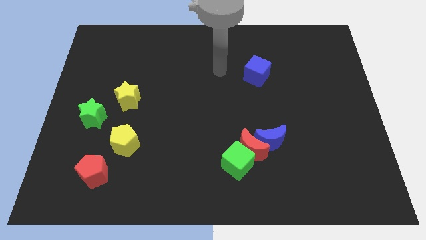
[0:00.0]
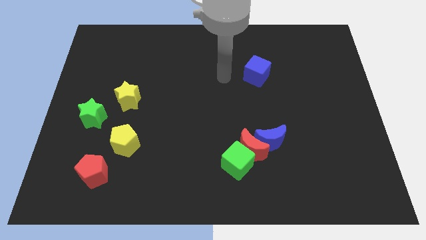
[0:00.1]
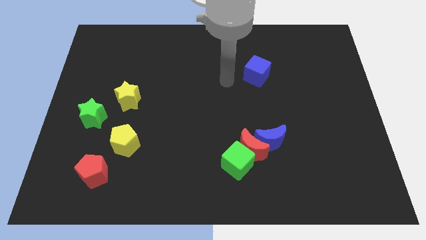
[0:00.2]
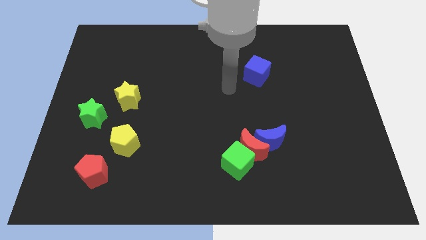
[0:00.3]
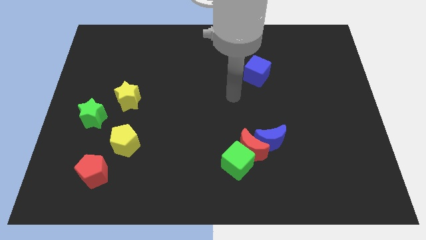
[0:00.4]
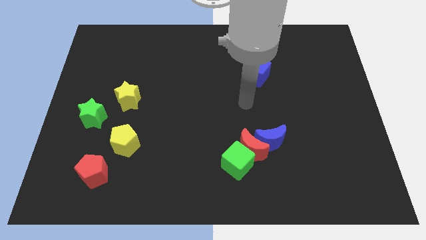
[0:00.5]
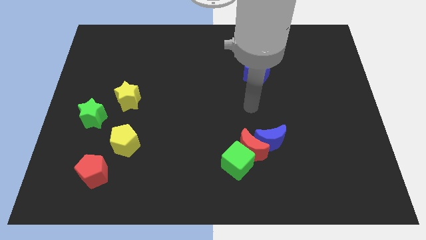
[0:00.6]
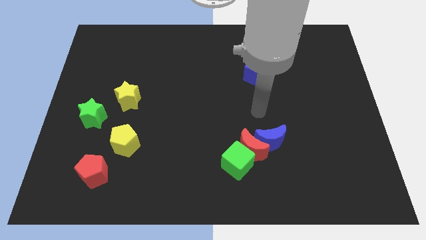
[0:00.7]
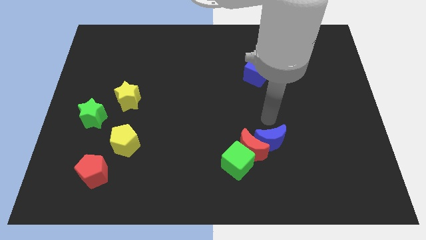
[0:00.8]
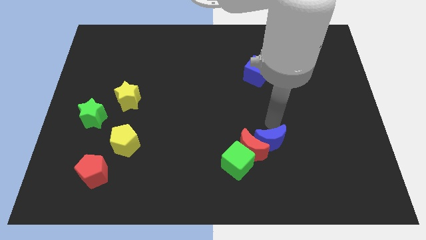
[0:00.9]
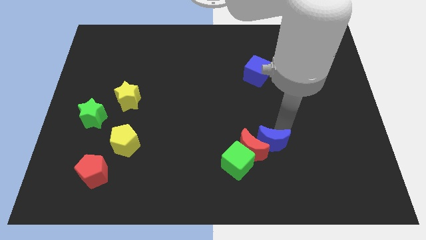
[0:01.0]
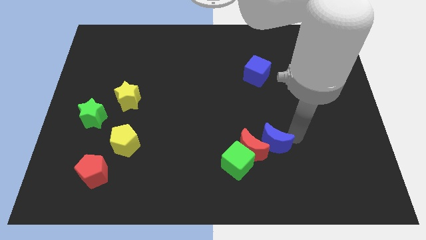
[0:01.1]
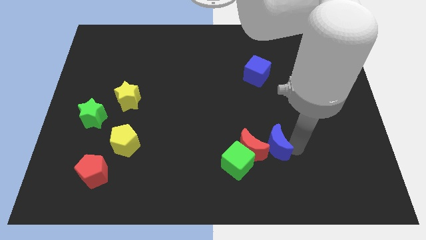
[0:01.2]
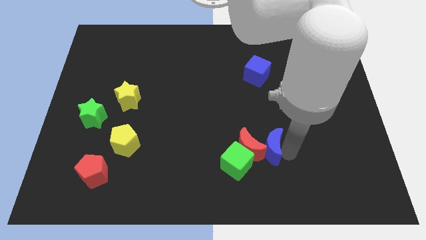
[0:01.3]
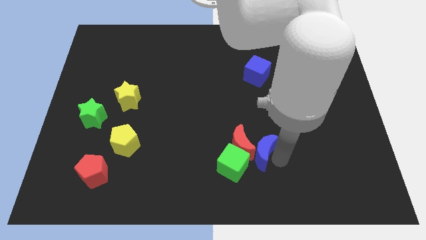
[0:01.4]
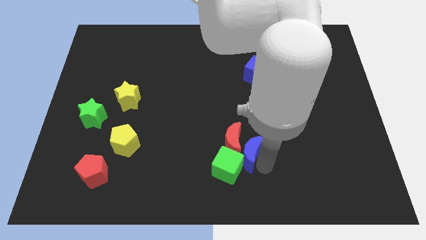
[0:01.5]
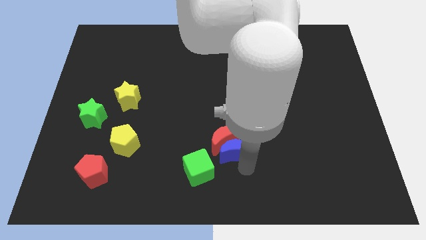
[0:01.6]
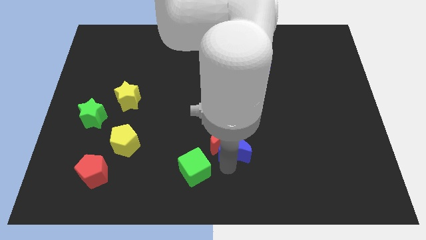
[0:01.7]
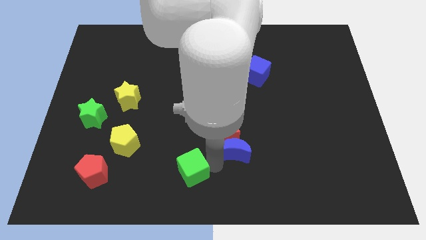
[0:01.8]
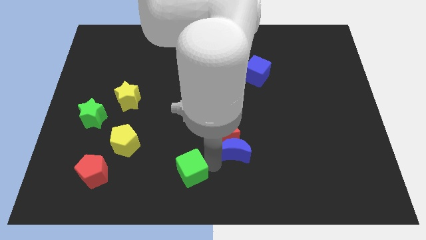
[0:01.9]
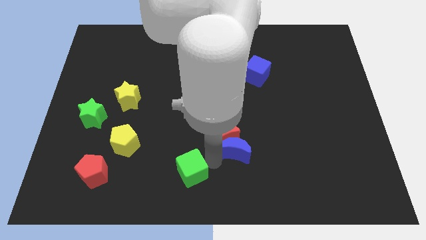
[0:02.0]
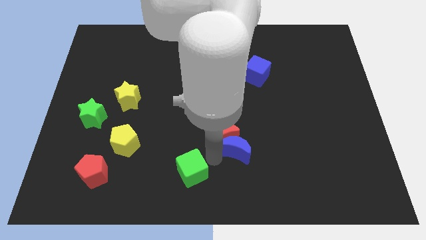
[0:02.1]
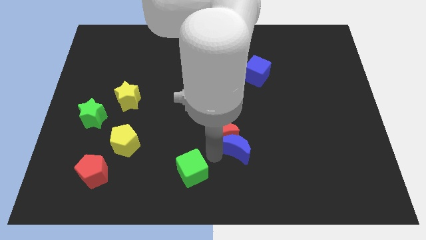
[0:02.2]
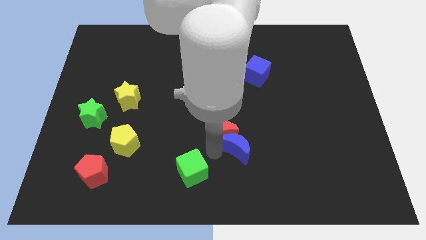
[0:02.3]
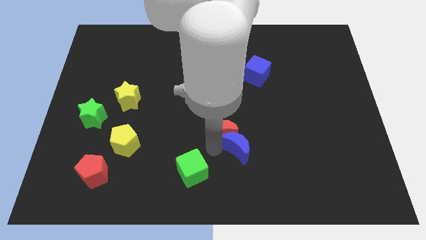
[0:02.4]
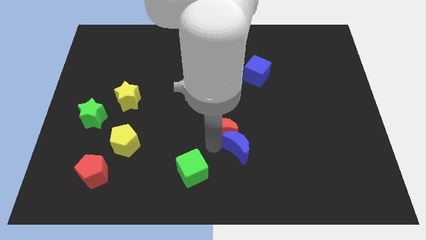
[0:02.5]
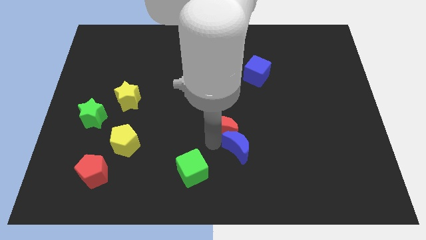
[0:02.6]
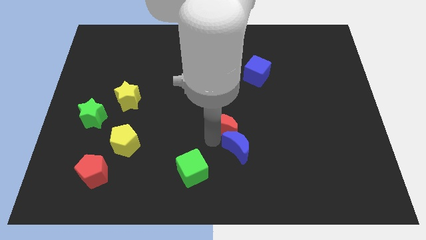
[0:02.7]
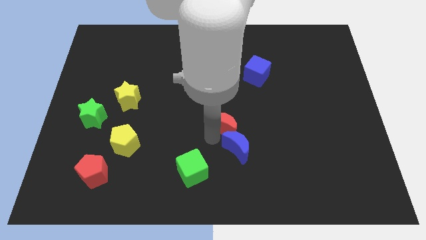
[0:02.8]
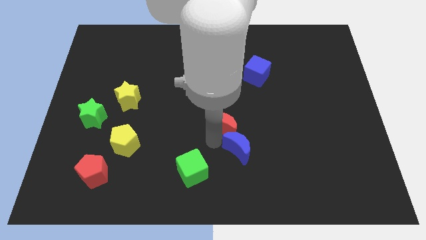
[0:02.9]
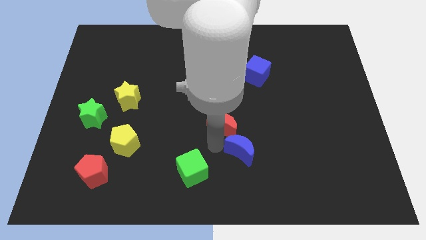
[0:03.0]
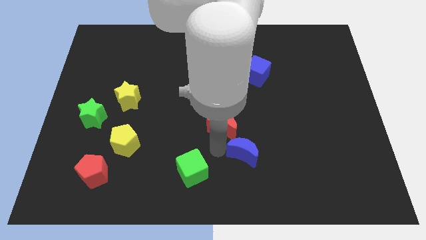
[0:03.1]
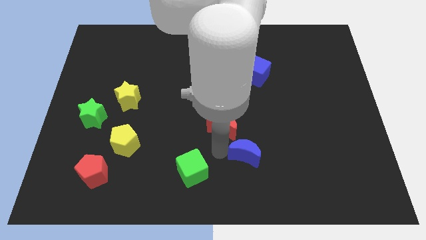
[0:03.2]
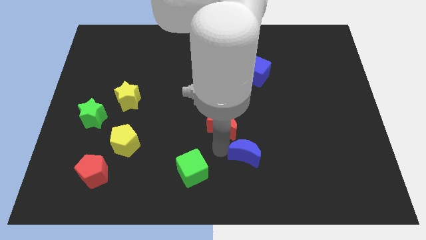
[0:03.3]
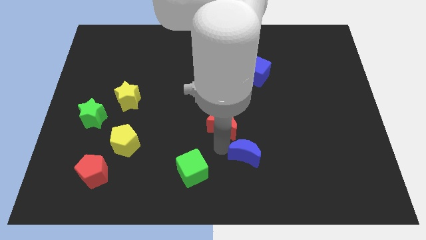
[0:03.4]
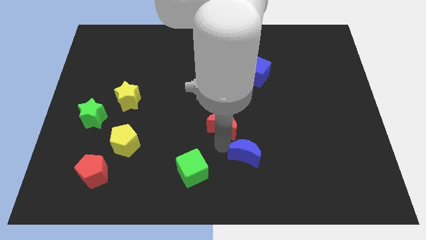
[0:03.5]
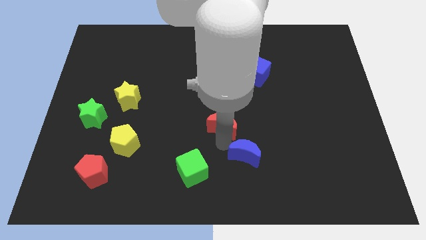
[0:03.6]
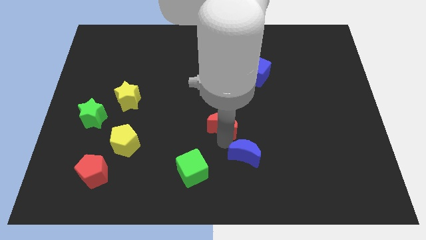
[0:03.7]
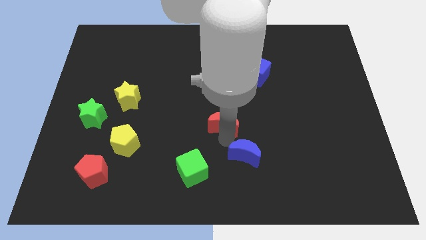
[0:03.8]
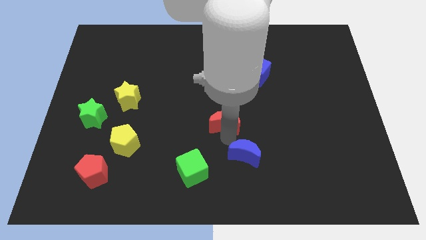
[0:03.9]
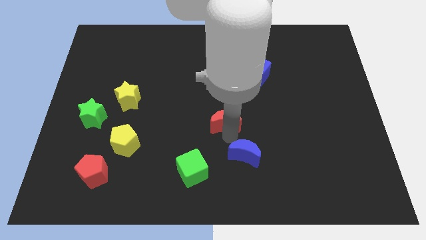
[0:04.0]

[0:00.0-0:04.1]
pull the red moon apart from the green cube and blue moon

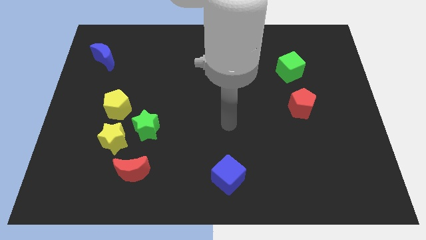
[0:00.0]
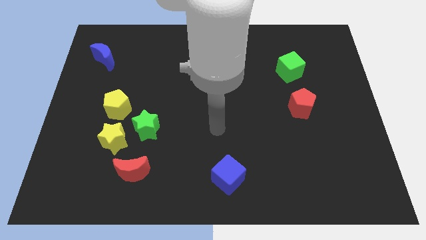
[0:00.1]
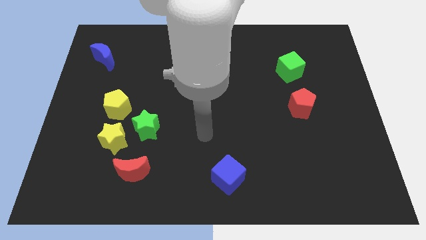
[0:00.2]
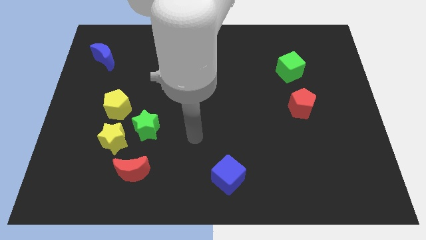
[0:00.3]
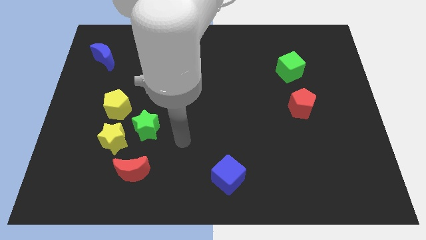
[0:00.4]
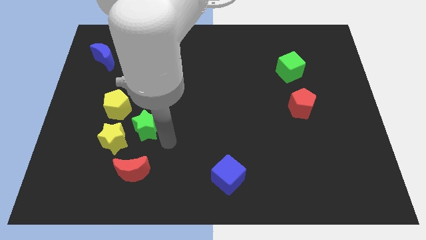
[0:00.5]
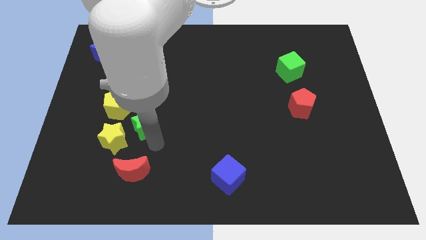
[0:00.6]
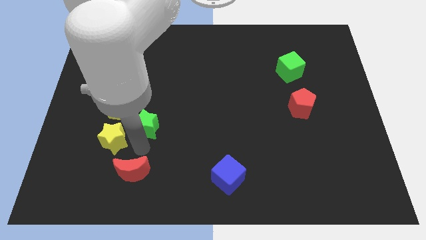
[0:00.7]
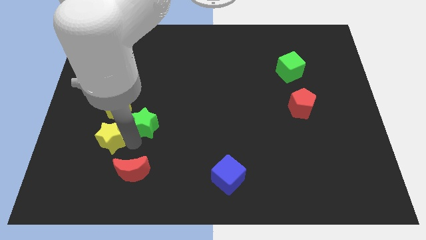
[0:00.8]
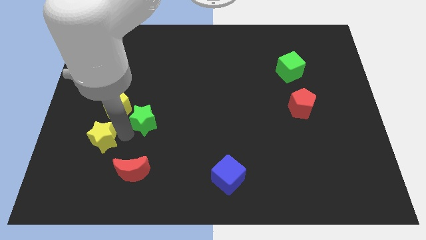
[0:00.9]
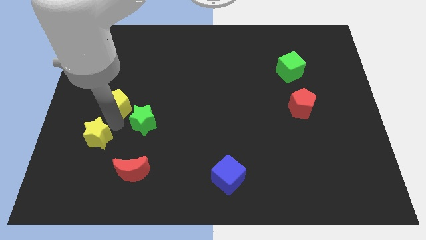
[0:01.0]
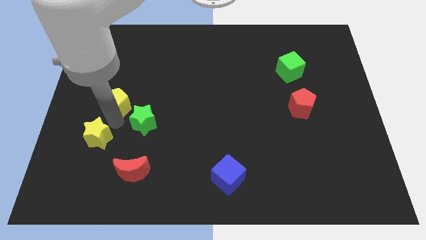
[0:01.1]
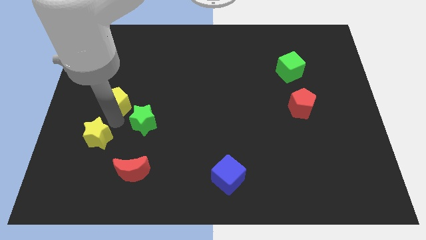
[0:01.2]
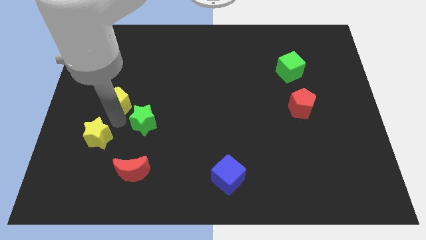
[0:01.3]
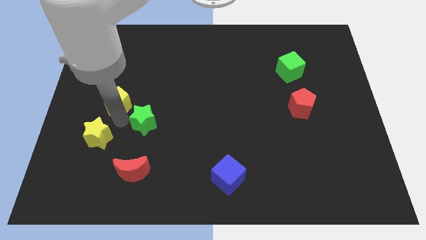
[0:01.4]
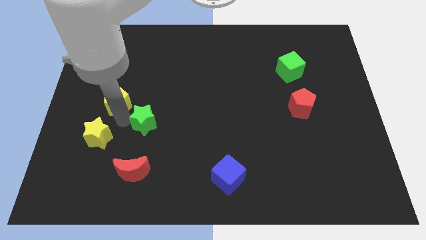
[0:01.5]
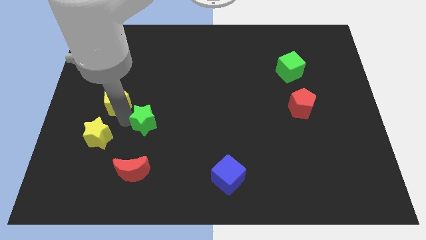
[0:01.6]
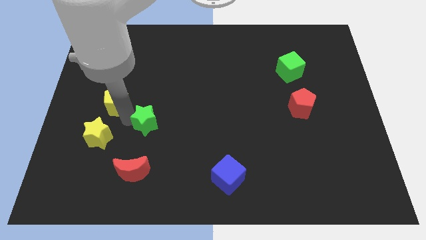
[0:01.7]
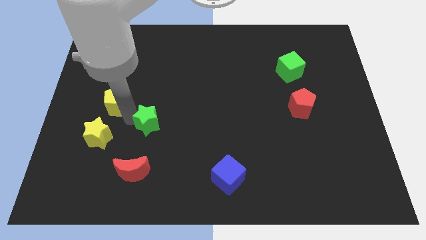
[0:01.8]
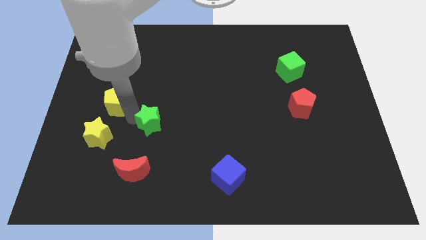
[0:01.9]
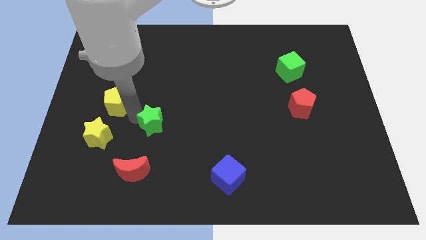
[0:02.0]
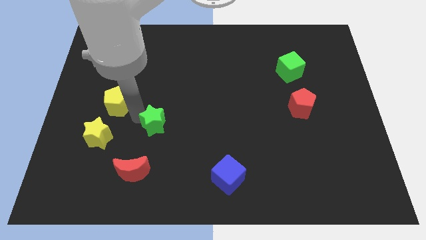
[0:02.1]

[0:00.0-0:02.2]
separate the green star from the yellow star and yellow pentagon

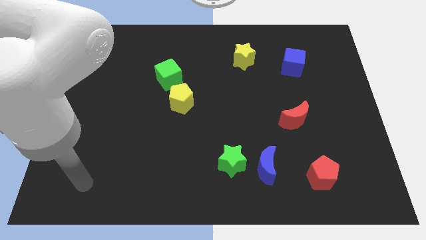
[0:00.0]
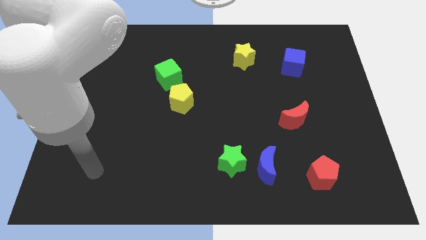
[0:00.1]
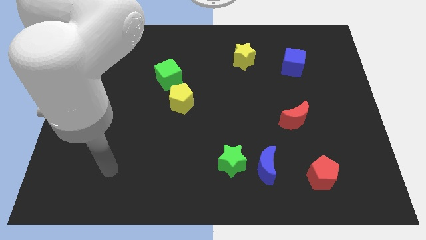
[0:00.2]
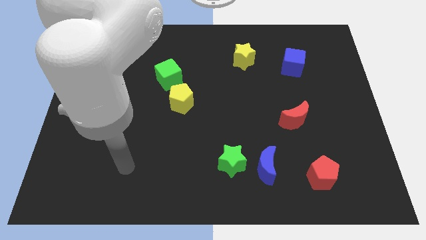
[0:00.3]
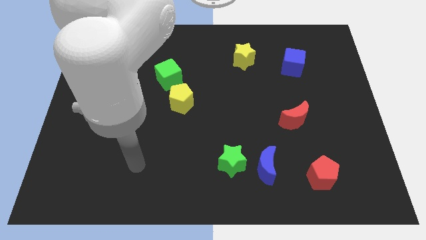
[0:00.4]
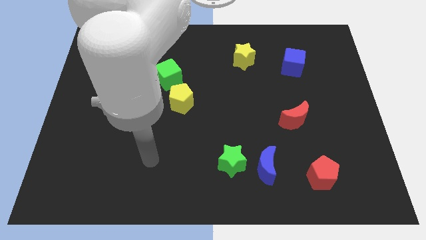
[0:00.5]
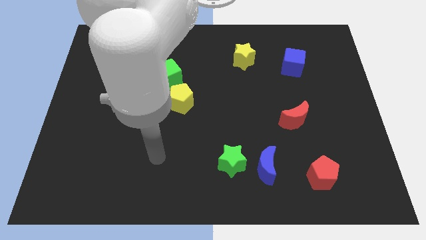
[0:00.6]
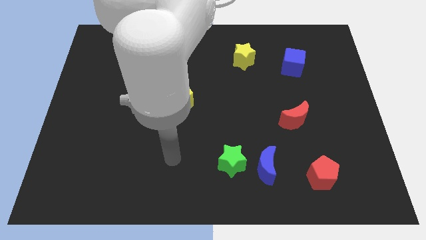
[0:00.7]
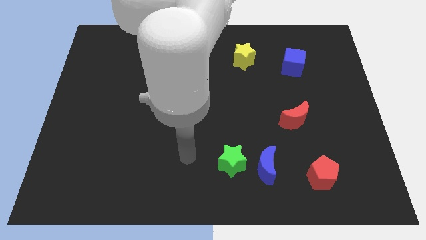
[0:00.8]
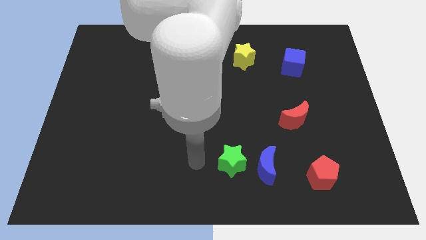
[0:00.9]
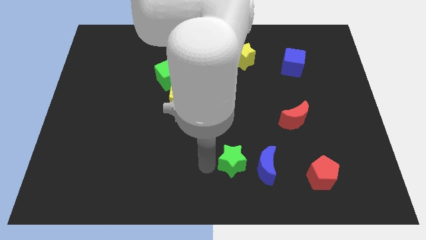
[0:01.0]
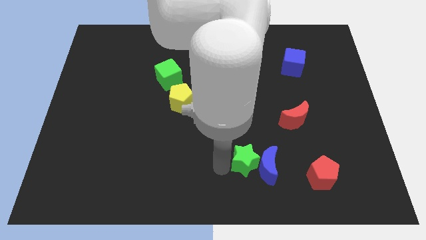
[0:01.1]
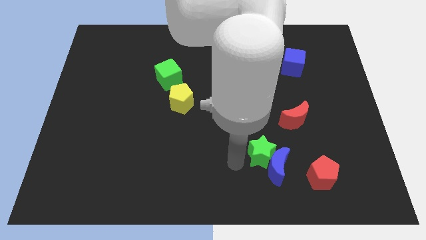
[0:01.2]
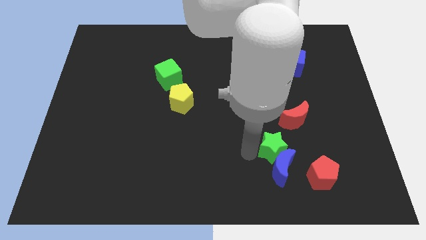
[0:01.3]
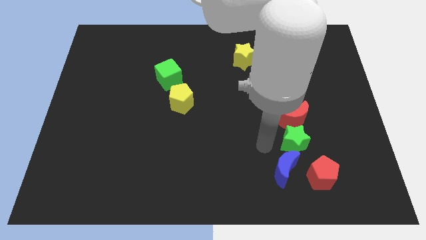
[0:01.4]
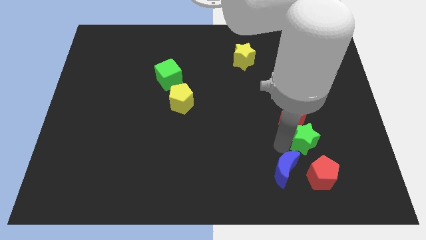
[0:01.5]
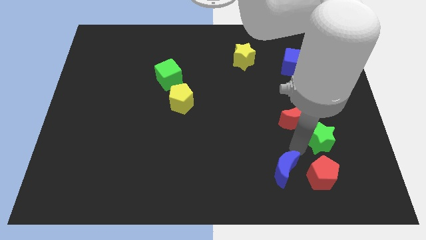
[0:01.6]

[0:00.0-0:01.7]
separate the blue moon from the green star

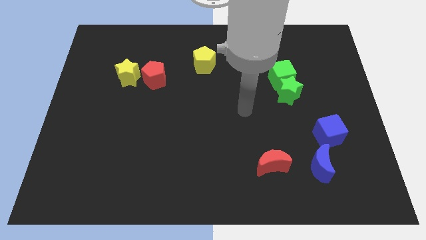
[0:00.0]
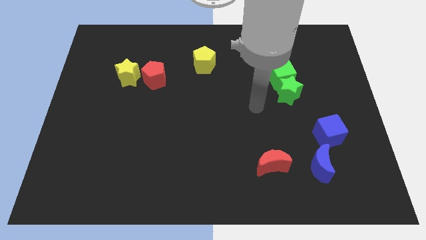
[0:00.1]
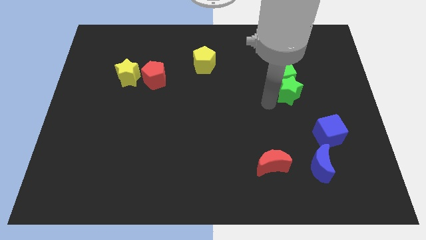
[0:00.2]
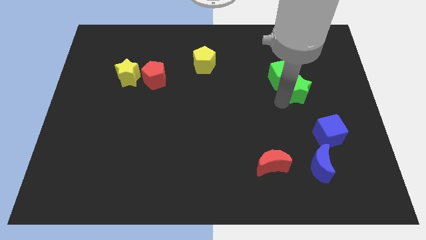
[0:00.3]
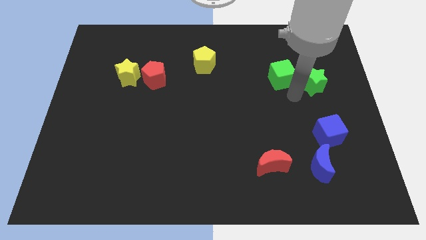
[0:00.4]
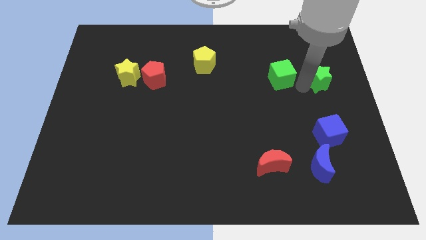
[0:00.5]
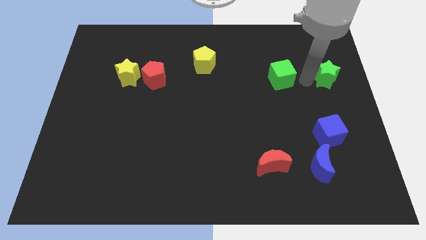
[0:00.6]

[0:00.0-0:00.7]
pull the green cube apart from the green star

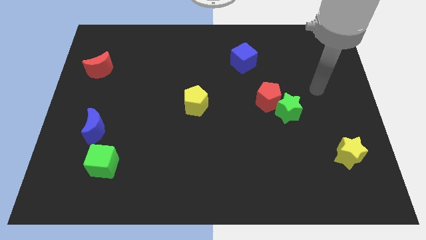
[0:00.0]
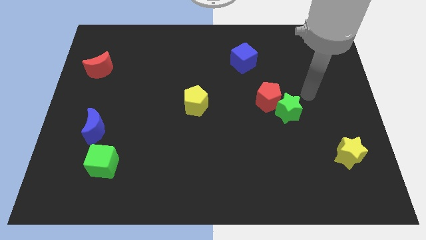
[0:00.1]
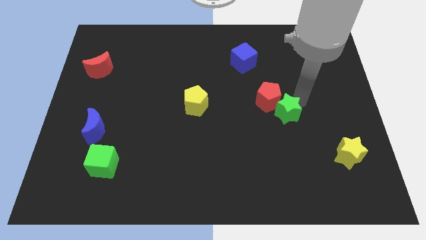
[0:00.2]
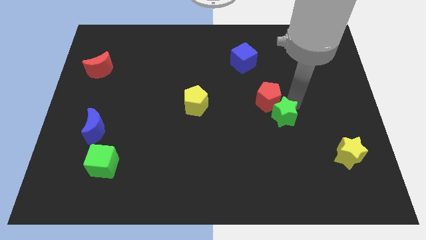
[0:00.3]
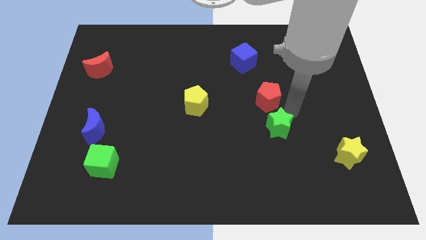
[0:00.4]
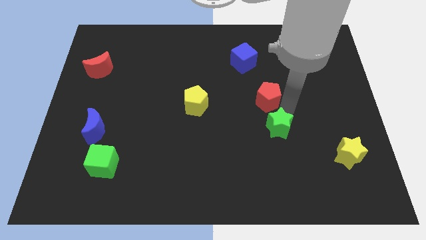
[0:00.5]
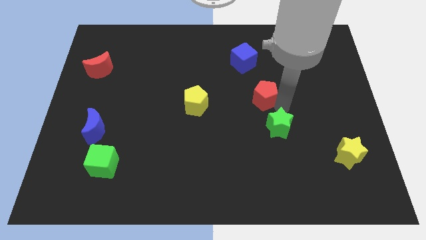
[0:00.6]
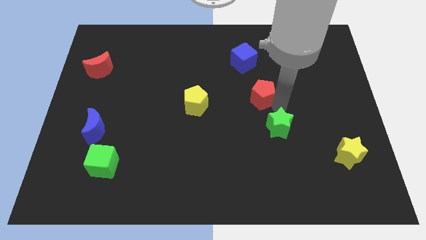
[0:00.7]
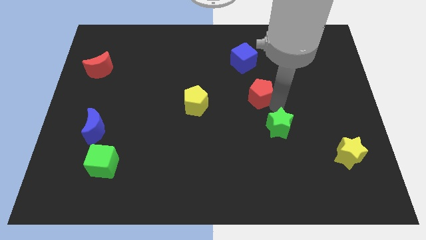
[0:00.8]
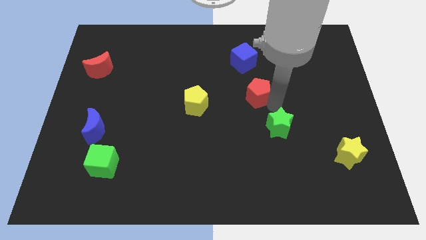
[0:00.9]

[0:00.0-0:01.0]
pull the red pentagon apart from the green star
